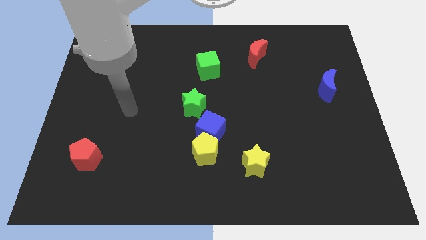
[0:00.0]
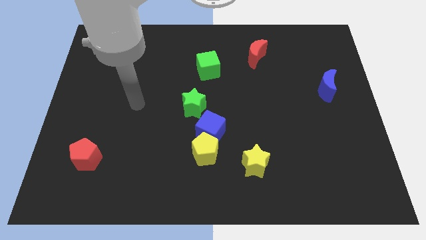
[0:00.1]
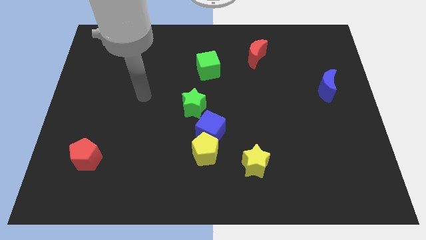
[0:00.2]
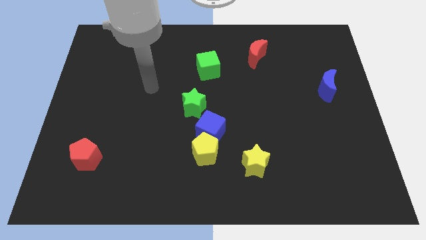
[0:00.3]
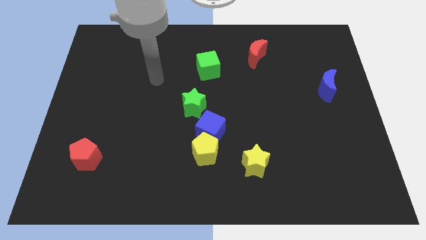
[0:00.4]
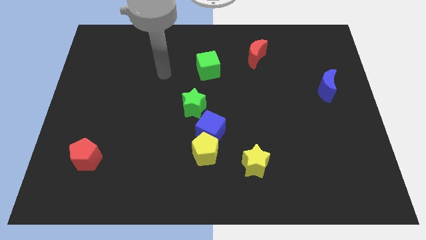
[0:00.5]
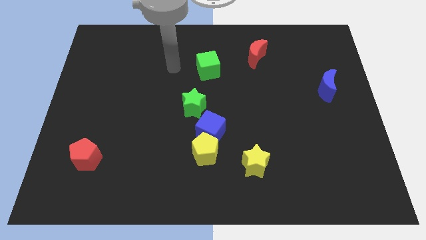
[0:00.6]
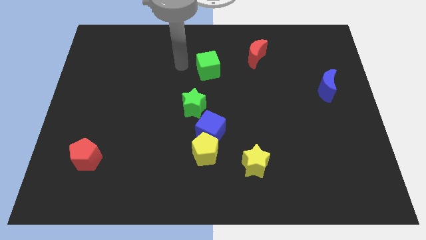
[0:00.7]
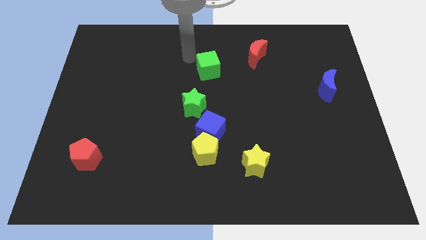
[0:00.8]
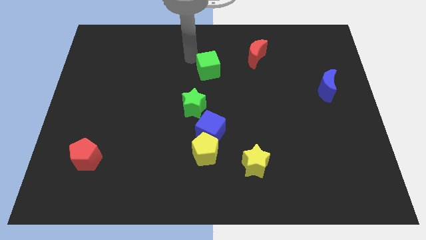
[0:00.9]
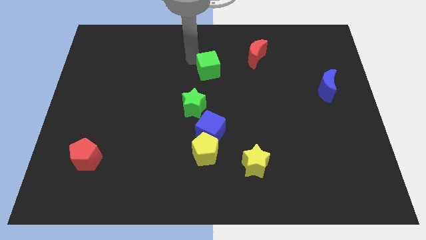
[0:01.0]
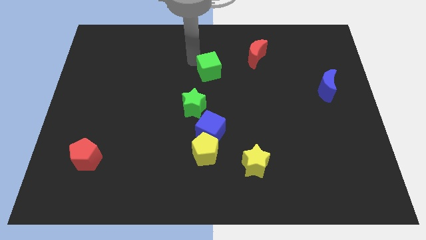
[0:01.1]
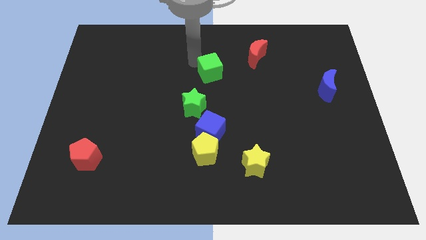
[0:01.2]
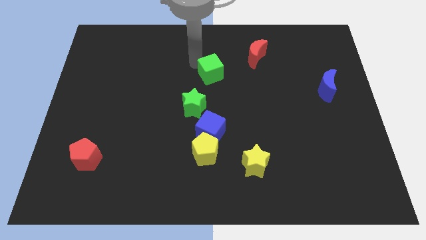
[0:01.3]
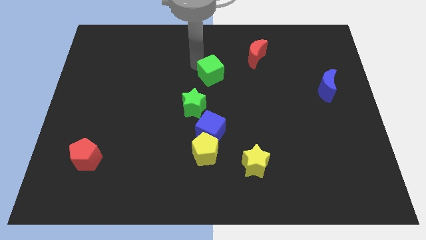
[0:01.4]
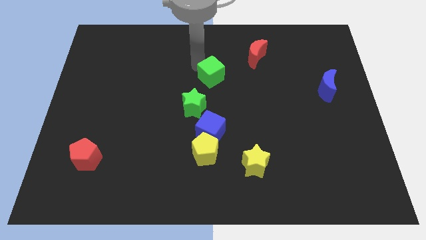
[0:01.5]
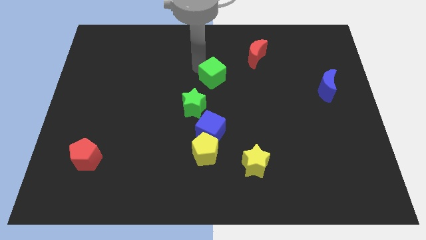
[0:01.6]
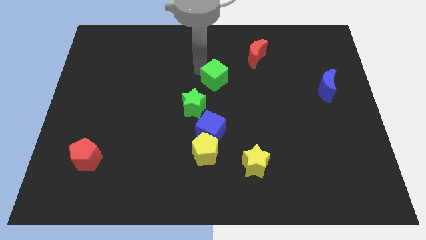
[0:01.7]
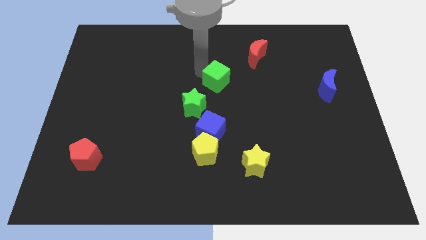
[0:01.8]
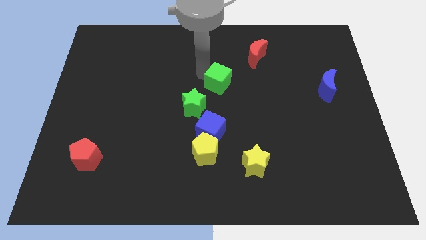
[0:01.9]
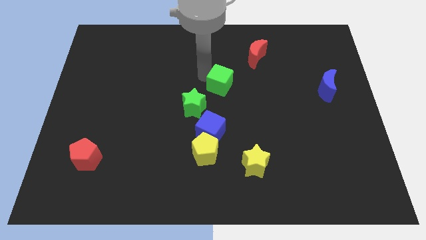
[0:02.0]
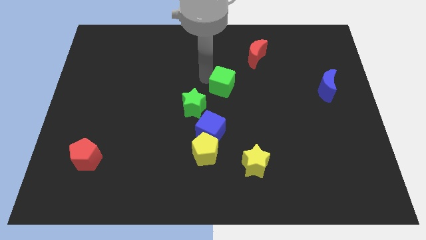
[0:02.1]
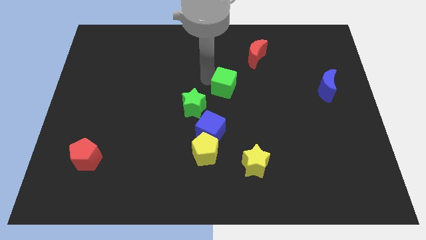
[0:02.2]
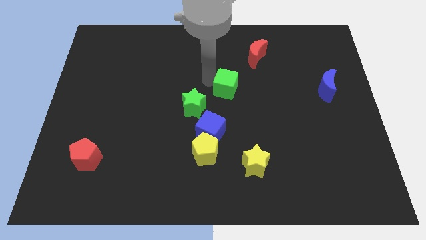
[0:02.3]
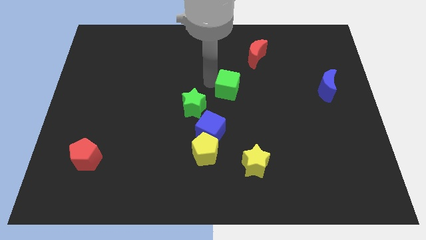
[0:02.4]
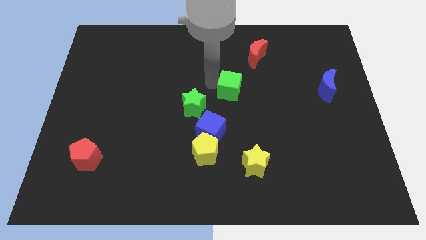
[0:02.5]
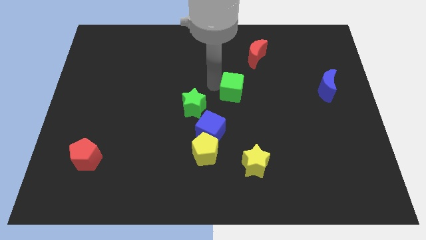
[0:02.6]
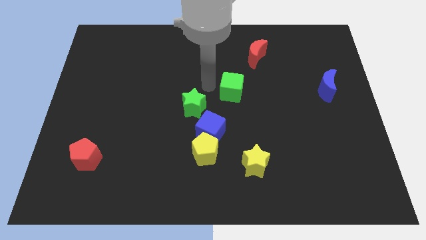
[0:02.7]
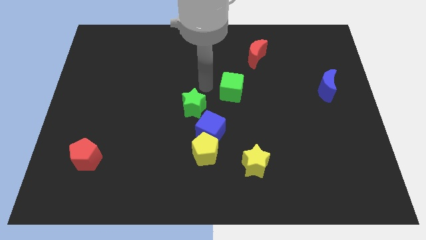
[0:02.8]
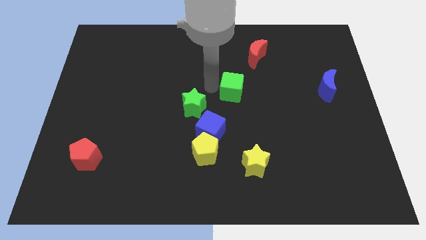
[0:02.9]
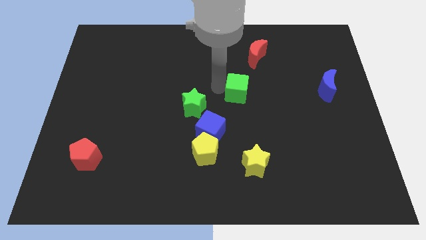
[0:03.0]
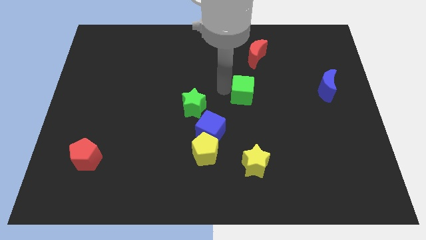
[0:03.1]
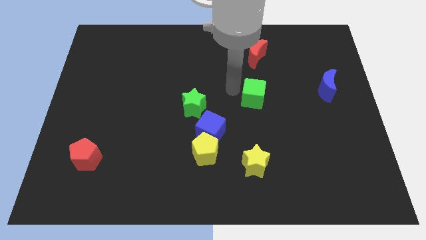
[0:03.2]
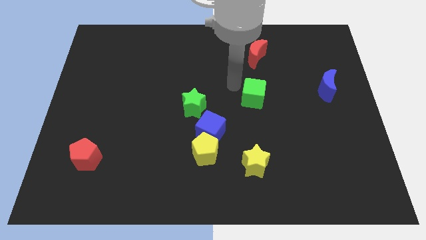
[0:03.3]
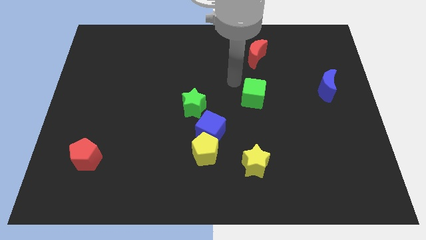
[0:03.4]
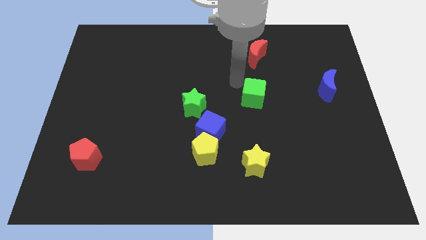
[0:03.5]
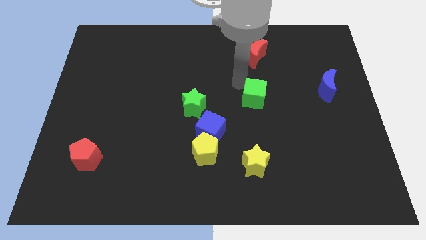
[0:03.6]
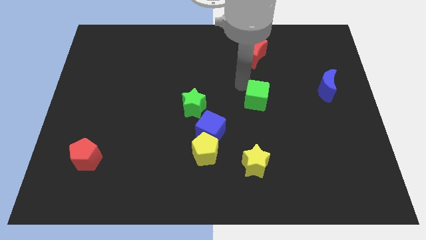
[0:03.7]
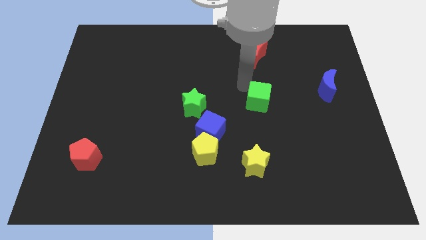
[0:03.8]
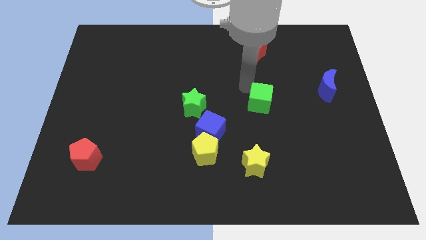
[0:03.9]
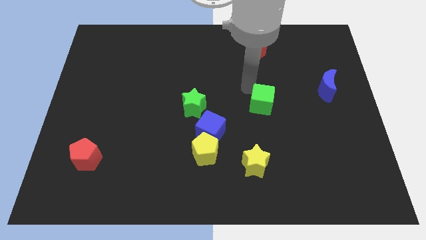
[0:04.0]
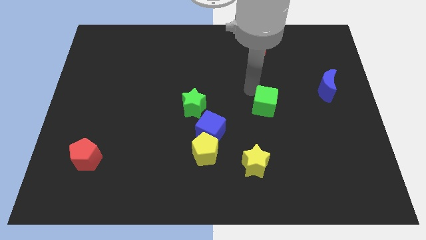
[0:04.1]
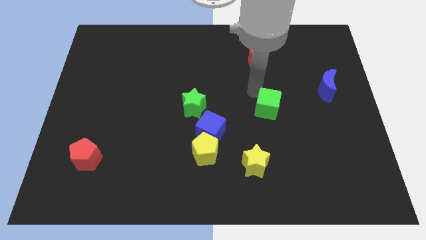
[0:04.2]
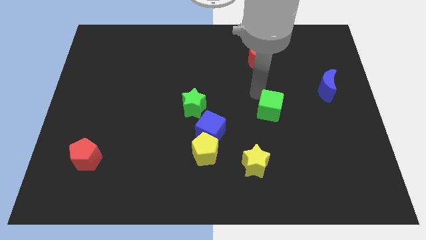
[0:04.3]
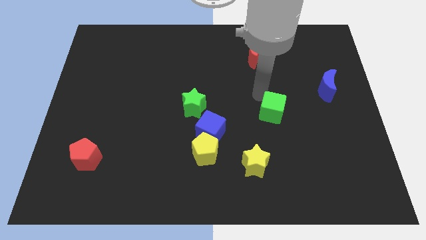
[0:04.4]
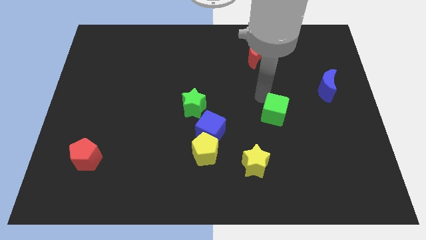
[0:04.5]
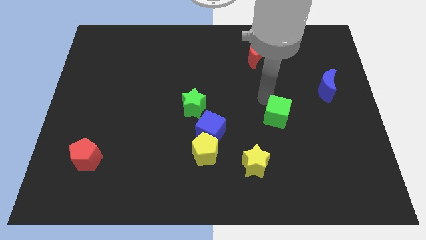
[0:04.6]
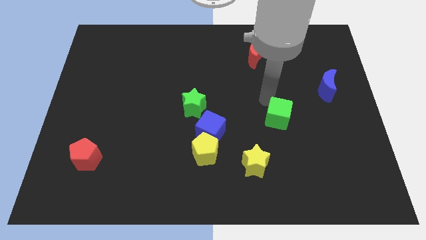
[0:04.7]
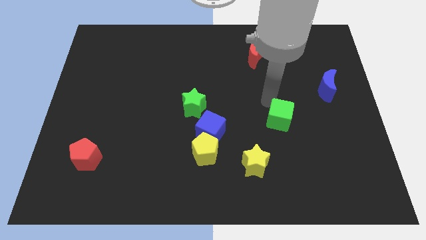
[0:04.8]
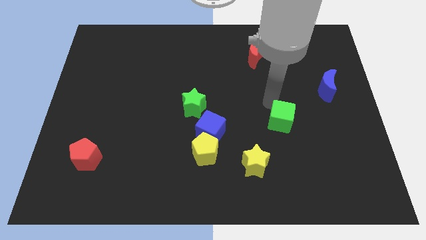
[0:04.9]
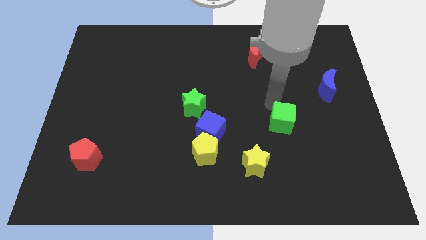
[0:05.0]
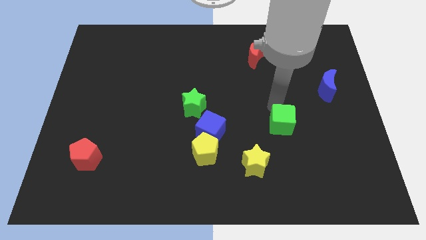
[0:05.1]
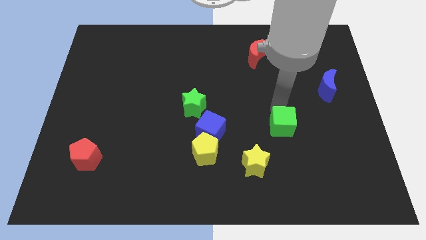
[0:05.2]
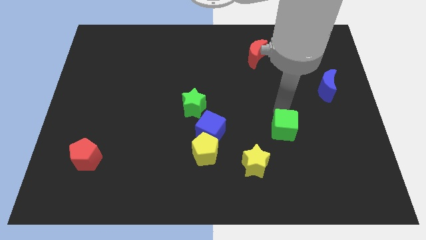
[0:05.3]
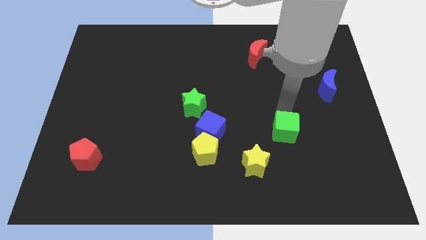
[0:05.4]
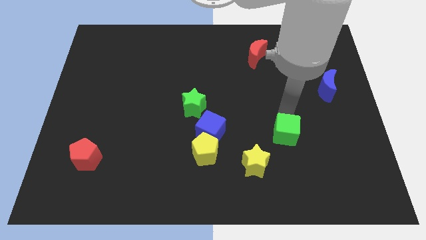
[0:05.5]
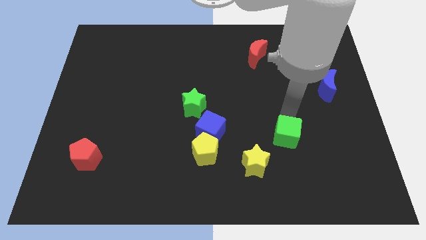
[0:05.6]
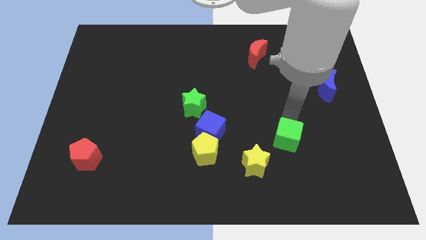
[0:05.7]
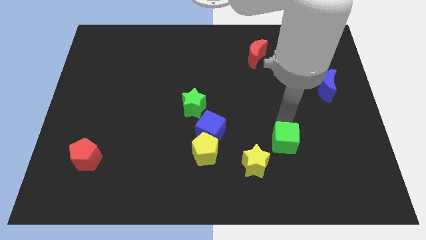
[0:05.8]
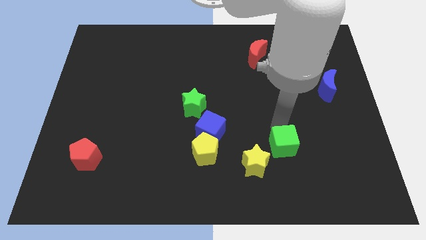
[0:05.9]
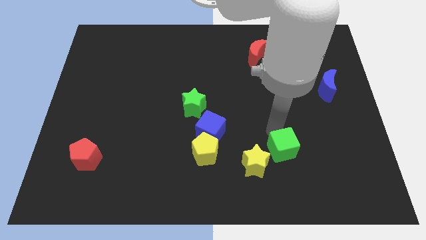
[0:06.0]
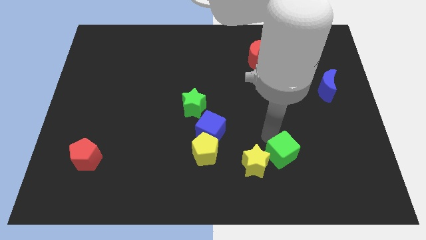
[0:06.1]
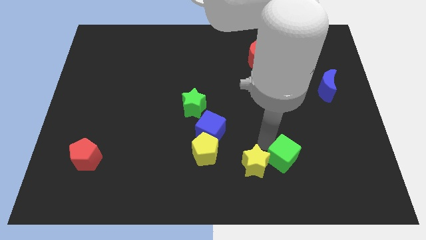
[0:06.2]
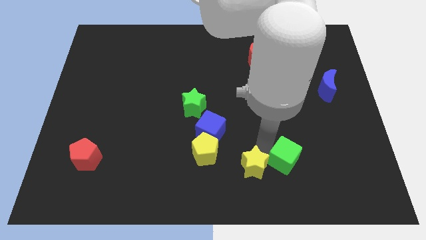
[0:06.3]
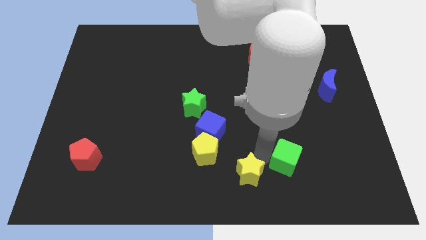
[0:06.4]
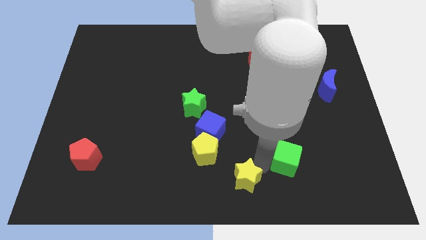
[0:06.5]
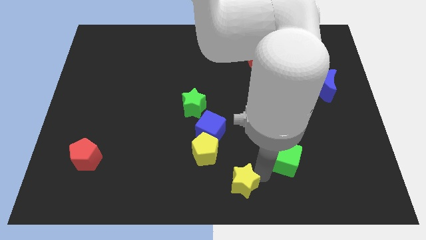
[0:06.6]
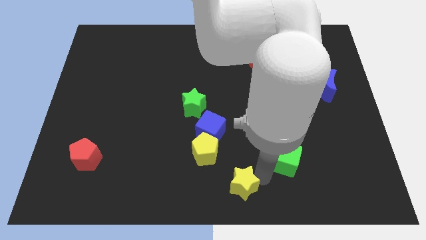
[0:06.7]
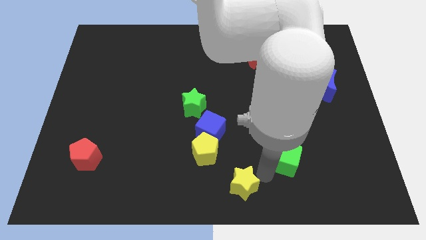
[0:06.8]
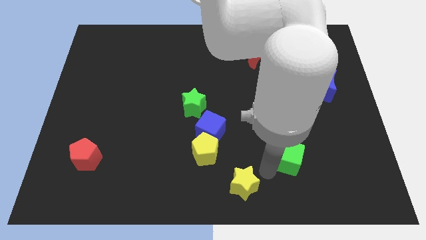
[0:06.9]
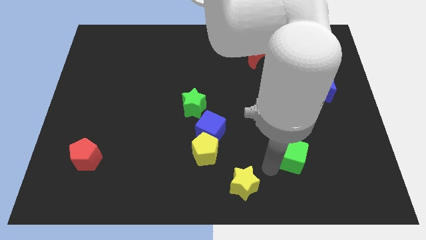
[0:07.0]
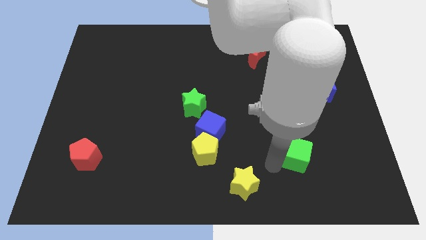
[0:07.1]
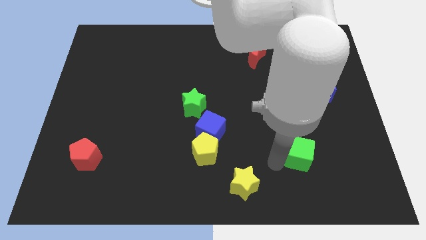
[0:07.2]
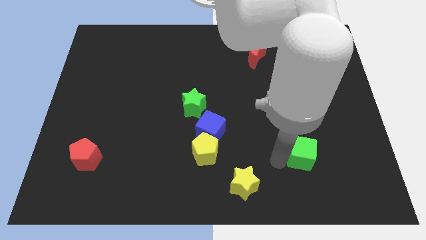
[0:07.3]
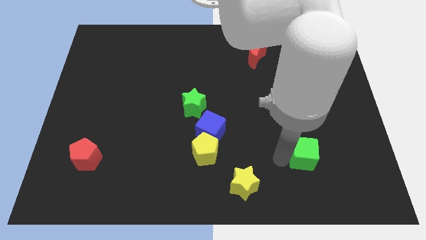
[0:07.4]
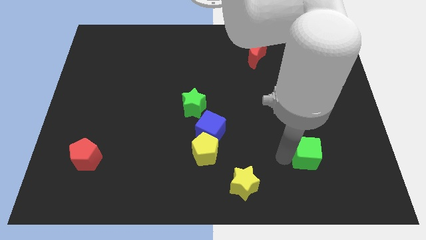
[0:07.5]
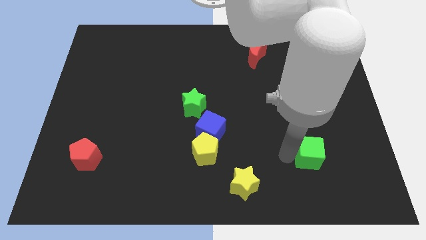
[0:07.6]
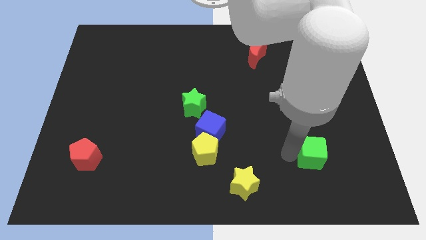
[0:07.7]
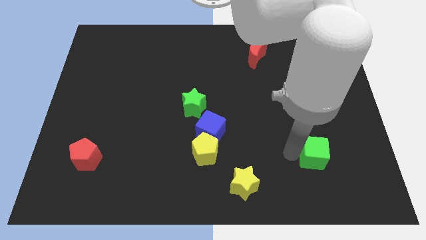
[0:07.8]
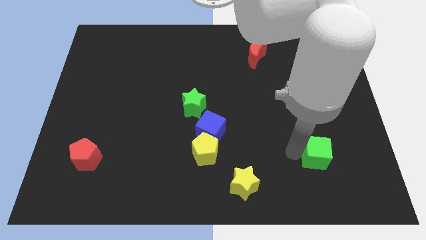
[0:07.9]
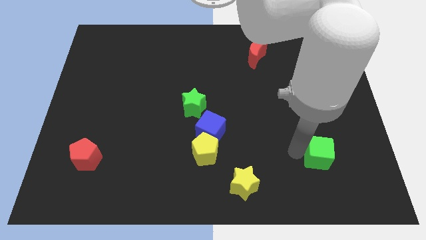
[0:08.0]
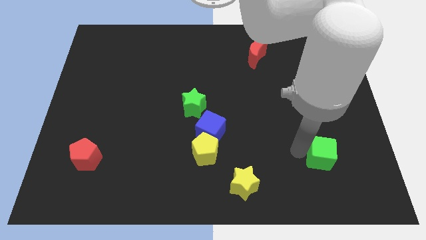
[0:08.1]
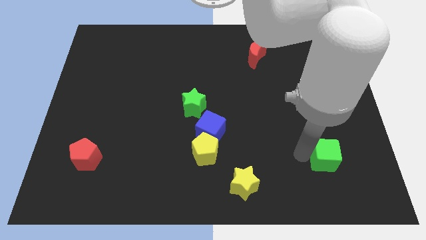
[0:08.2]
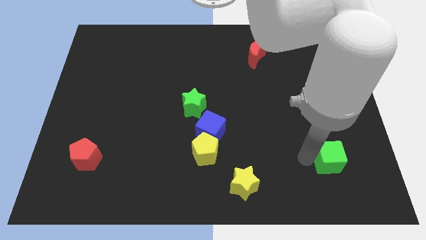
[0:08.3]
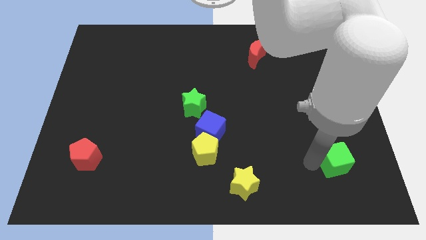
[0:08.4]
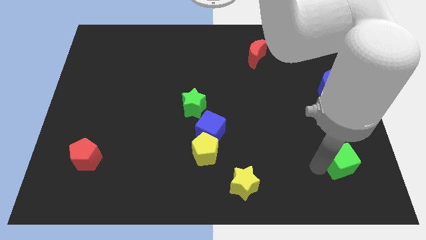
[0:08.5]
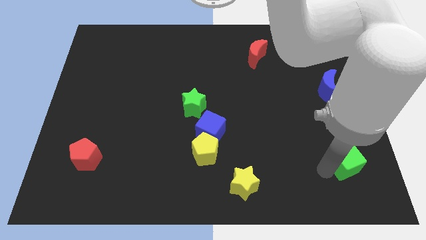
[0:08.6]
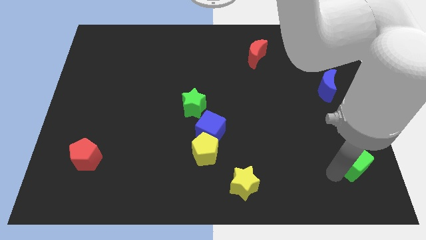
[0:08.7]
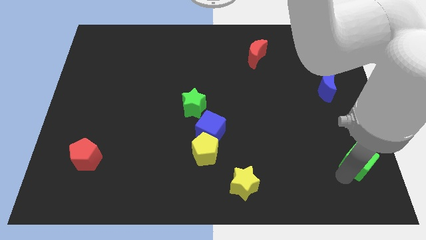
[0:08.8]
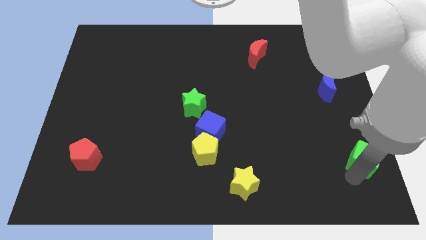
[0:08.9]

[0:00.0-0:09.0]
put the green cube to the bottom right of the board
